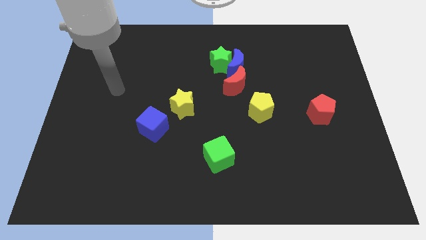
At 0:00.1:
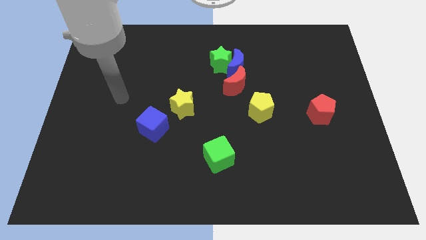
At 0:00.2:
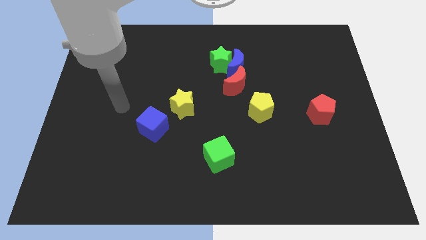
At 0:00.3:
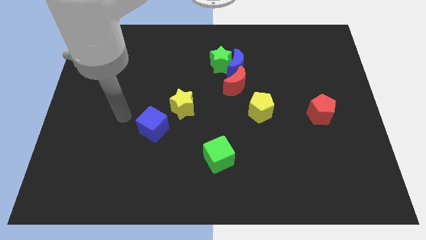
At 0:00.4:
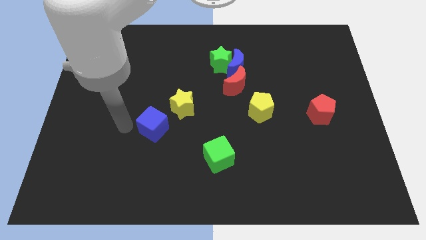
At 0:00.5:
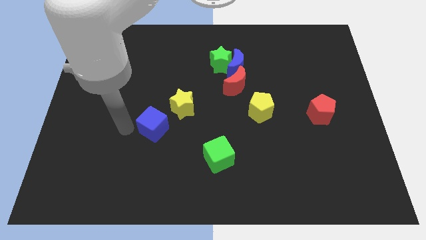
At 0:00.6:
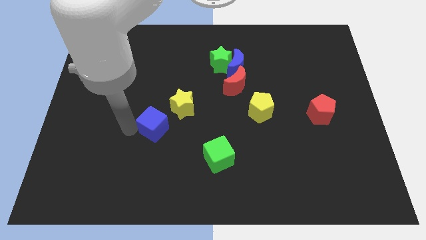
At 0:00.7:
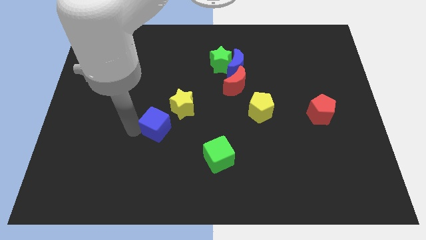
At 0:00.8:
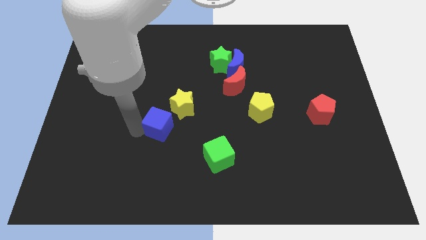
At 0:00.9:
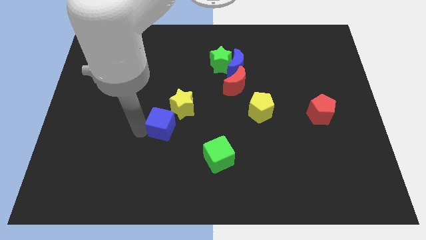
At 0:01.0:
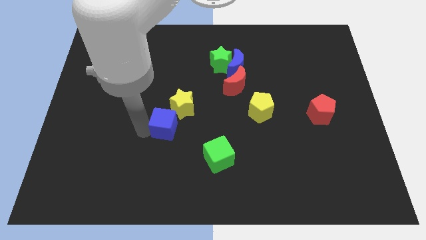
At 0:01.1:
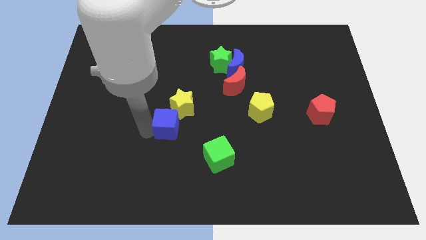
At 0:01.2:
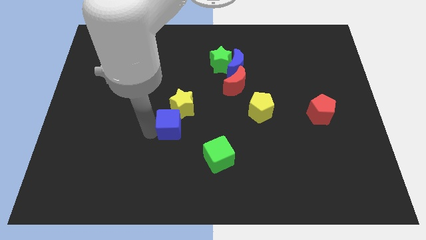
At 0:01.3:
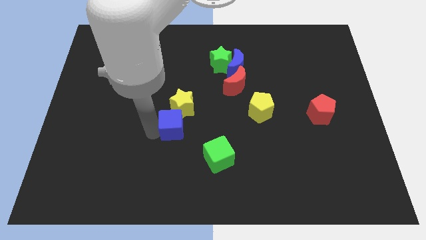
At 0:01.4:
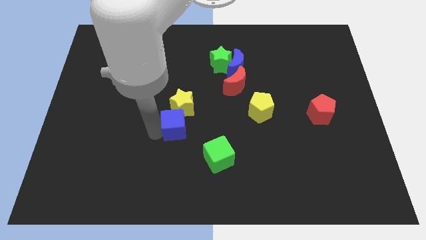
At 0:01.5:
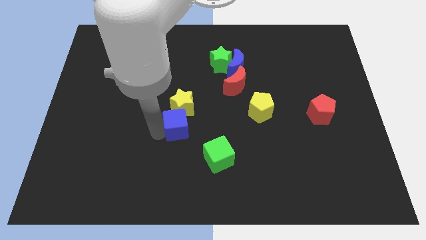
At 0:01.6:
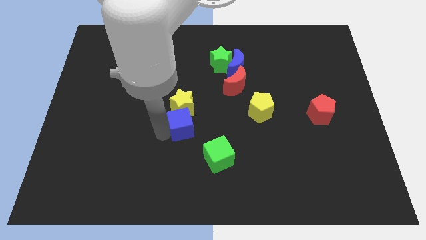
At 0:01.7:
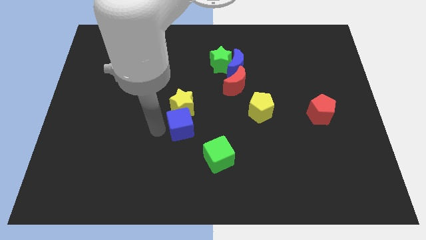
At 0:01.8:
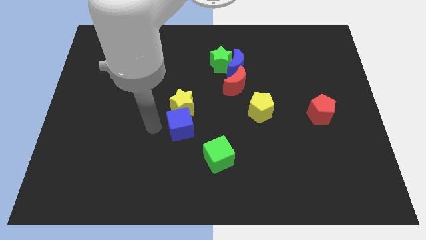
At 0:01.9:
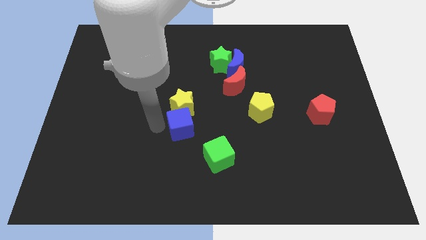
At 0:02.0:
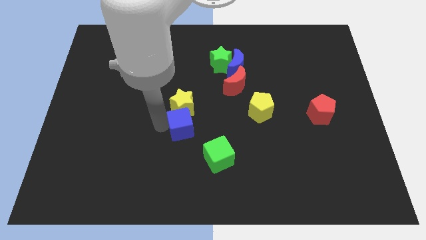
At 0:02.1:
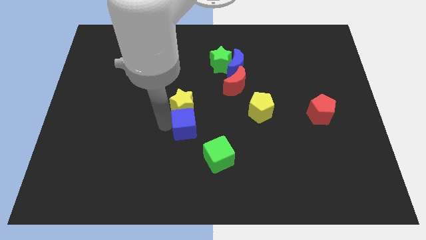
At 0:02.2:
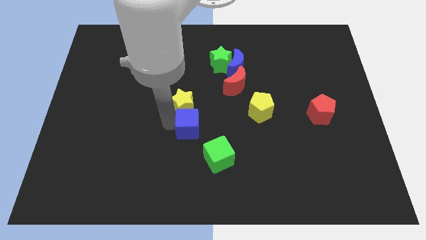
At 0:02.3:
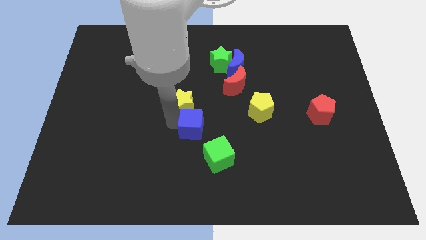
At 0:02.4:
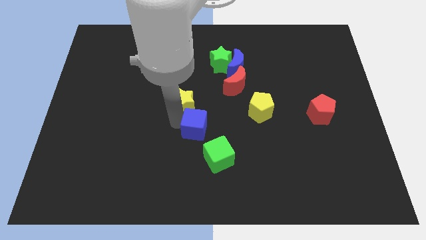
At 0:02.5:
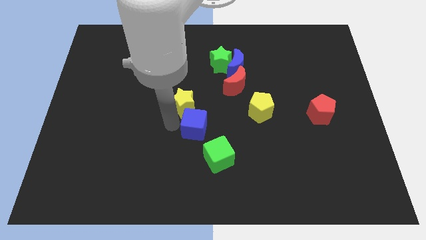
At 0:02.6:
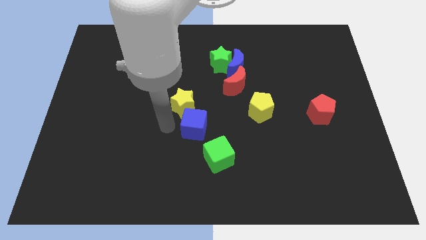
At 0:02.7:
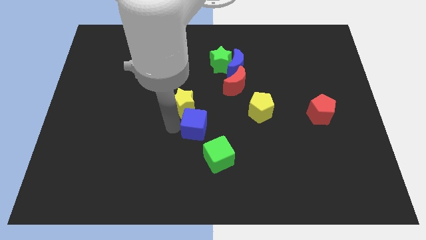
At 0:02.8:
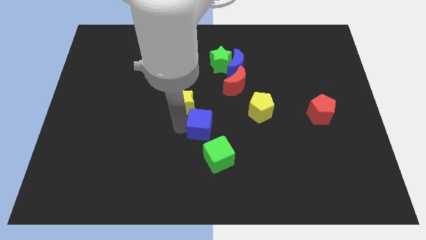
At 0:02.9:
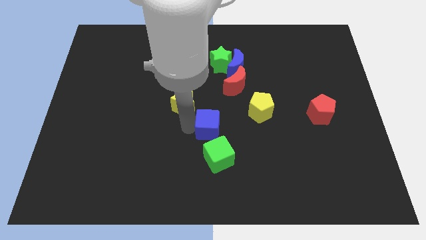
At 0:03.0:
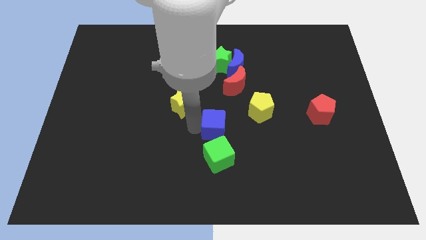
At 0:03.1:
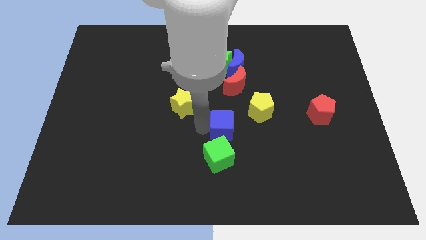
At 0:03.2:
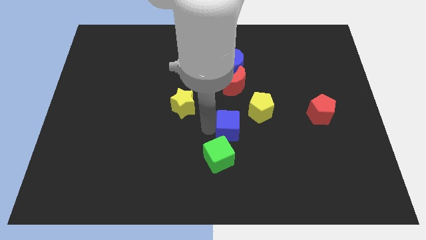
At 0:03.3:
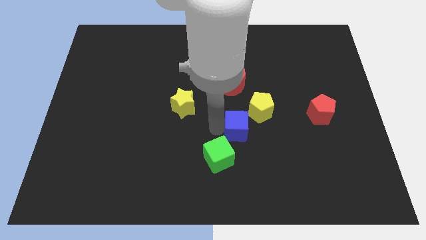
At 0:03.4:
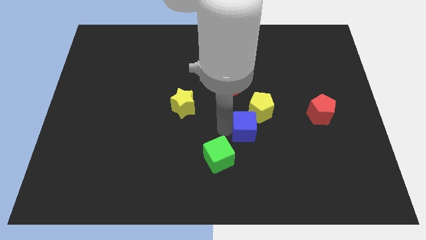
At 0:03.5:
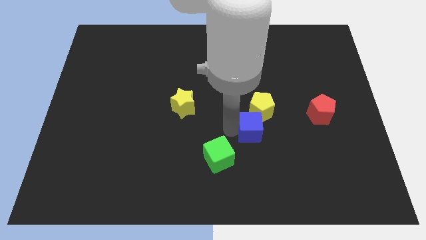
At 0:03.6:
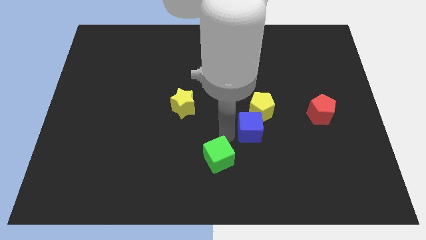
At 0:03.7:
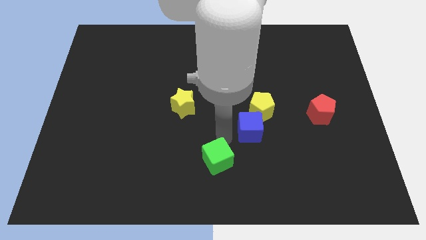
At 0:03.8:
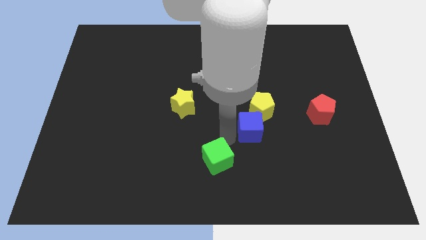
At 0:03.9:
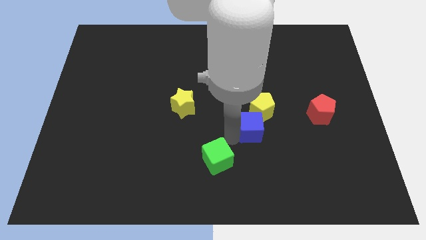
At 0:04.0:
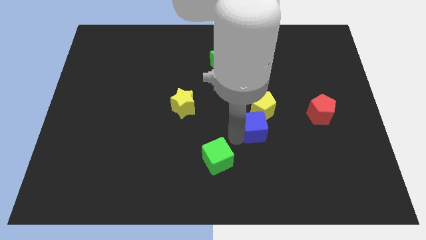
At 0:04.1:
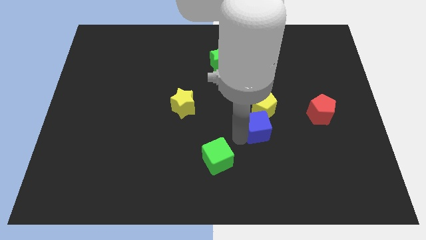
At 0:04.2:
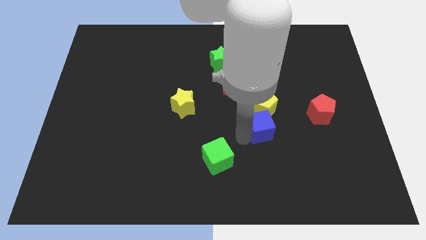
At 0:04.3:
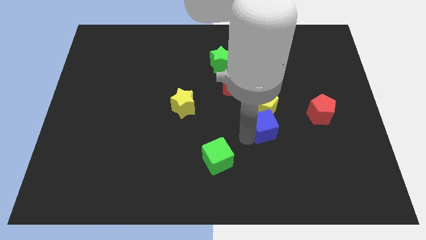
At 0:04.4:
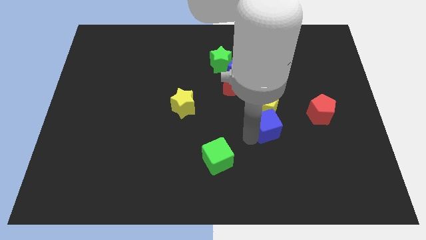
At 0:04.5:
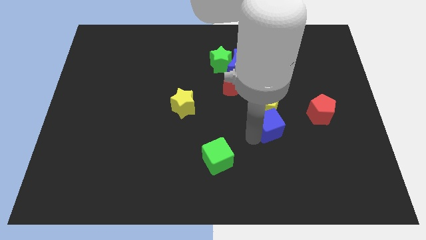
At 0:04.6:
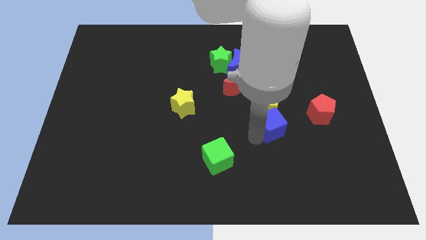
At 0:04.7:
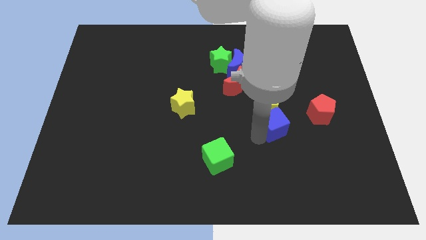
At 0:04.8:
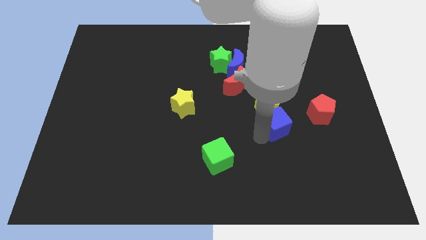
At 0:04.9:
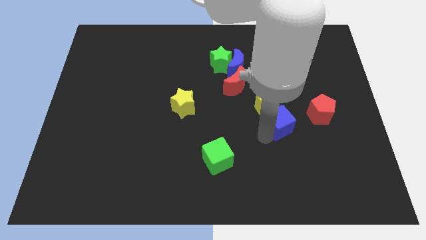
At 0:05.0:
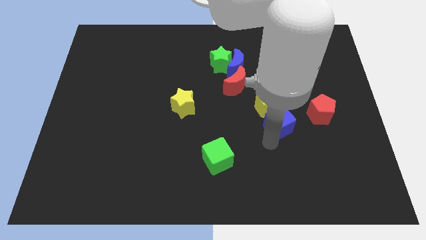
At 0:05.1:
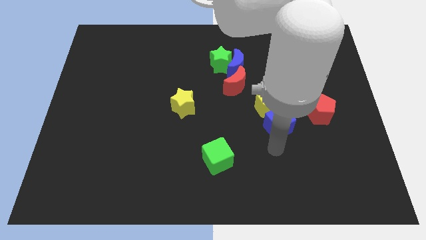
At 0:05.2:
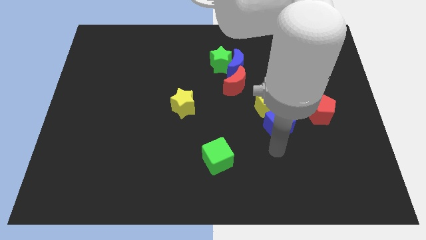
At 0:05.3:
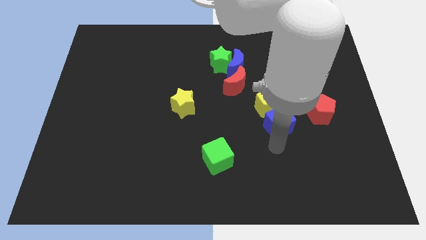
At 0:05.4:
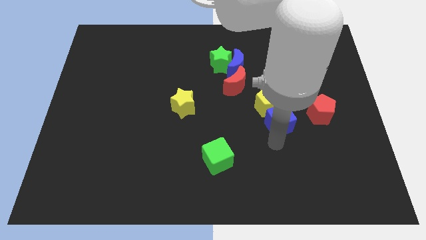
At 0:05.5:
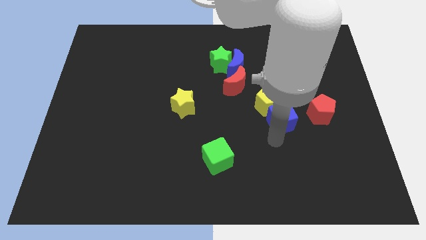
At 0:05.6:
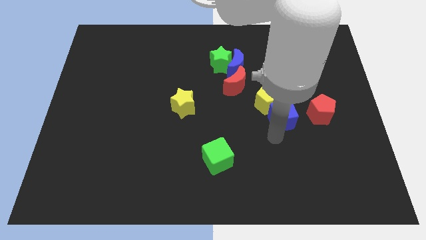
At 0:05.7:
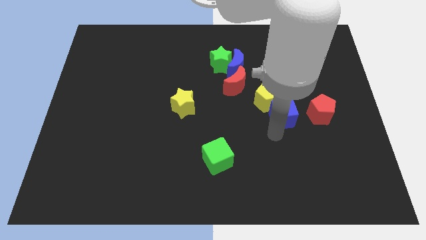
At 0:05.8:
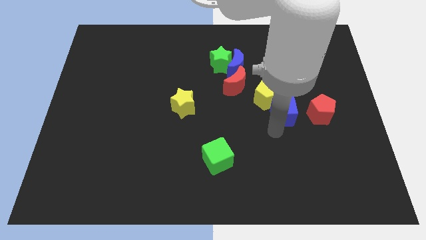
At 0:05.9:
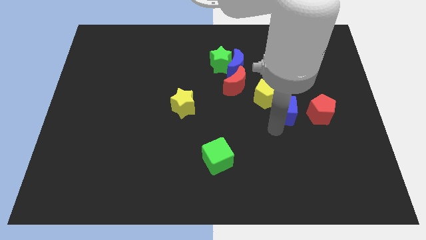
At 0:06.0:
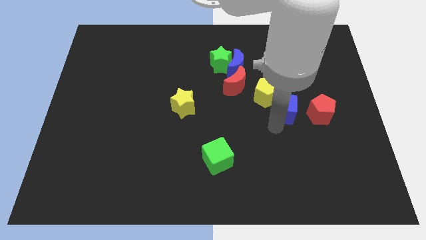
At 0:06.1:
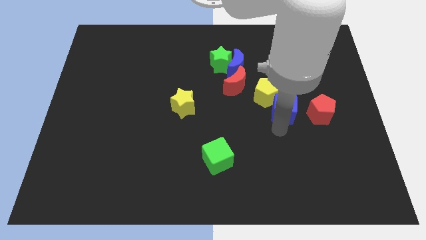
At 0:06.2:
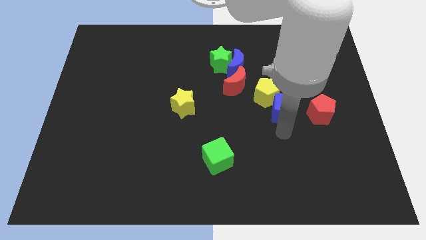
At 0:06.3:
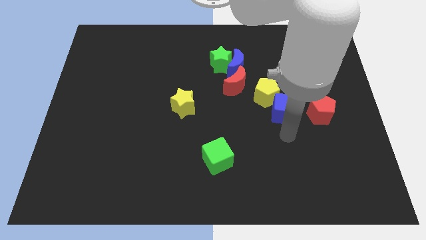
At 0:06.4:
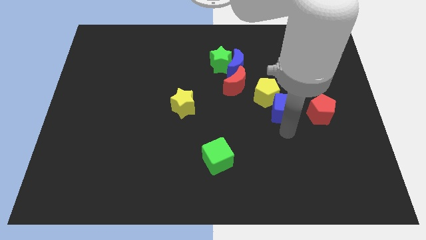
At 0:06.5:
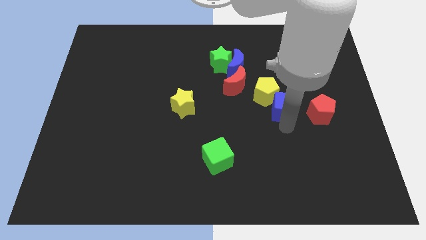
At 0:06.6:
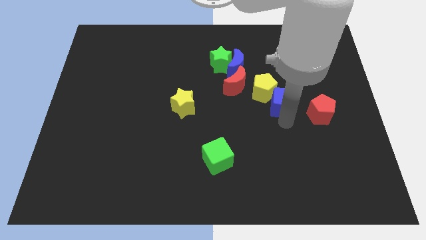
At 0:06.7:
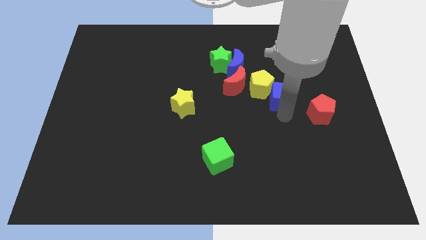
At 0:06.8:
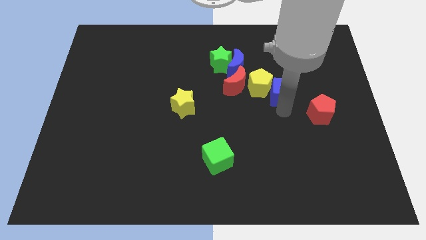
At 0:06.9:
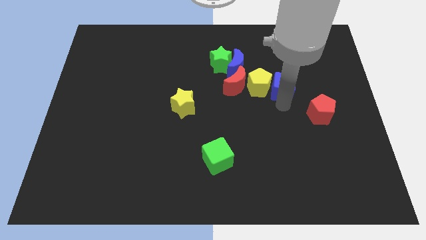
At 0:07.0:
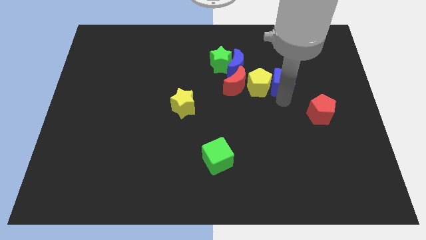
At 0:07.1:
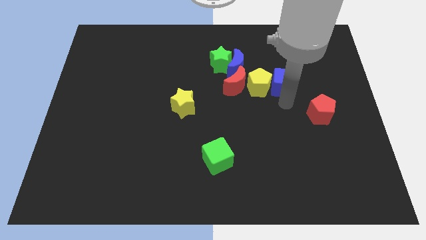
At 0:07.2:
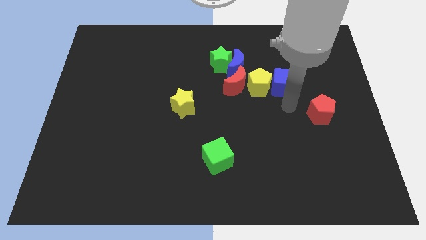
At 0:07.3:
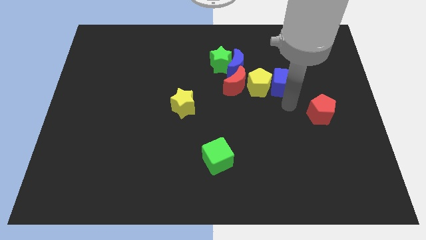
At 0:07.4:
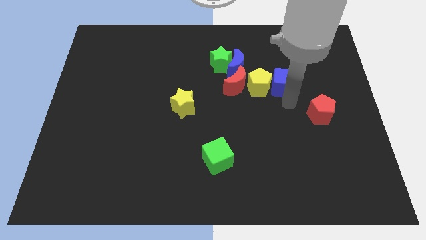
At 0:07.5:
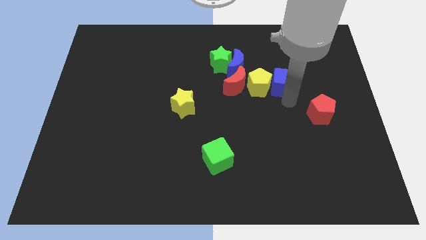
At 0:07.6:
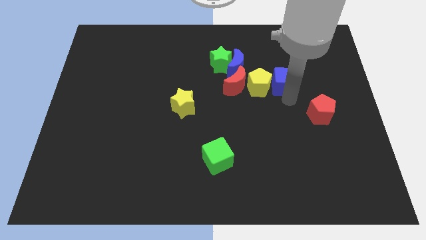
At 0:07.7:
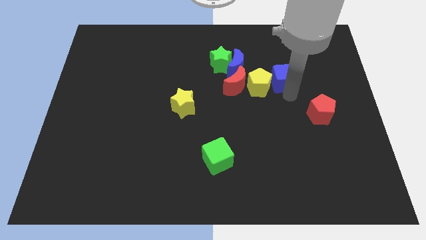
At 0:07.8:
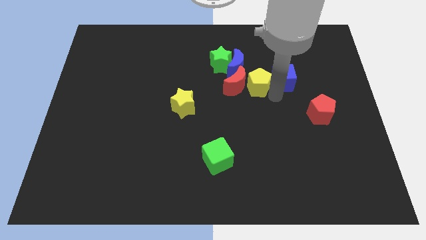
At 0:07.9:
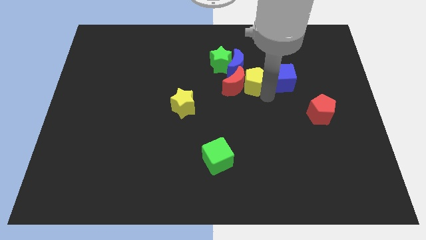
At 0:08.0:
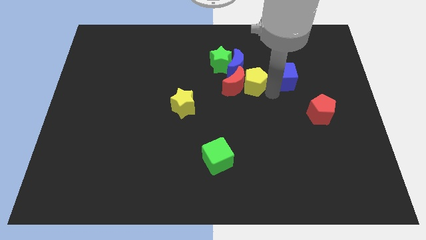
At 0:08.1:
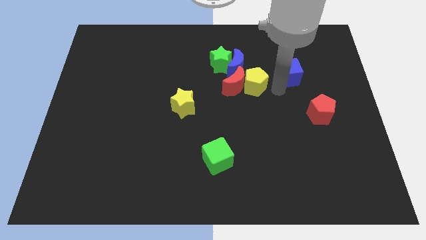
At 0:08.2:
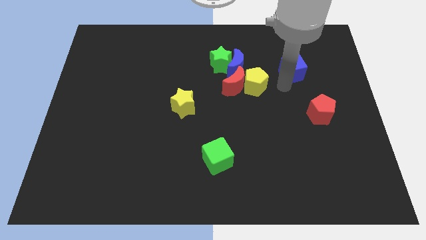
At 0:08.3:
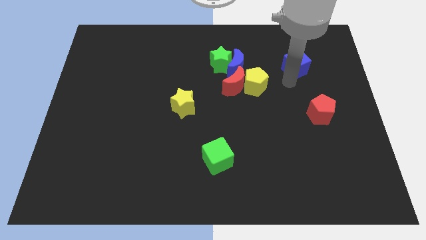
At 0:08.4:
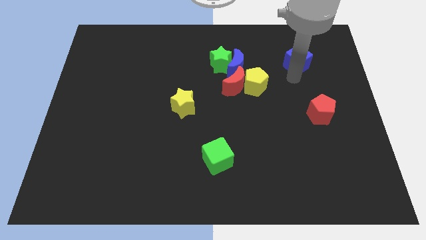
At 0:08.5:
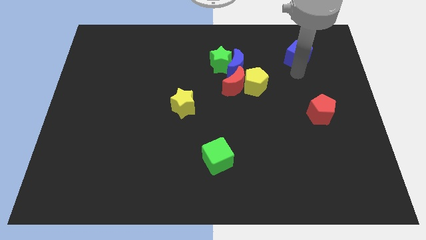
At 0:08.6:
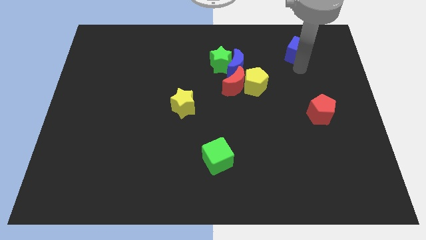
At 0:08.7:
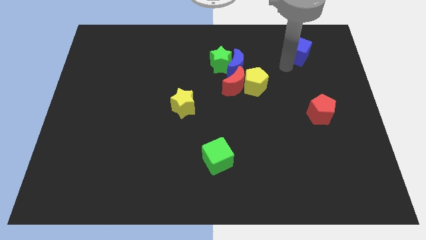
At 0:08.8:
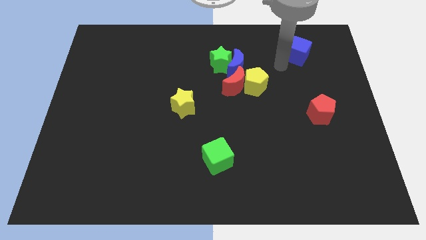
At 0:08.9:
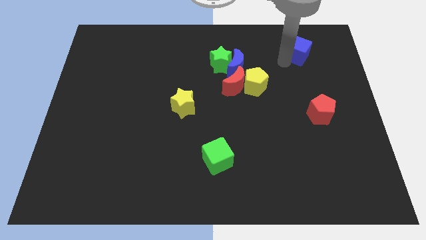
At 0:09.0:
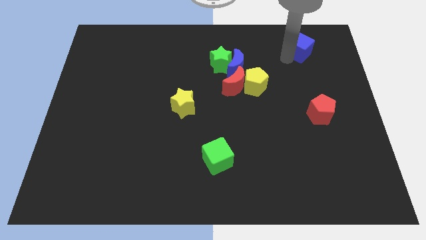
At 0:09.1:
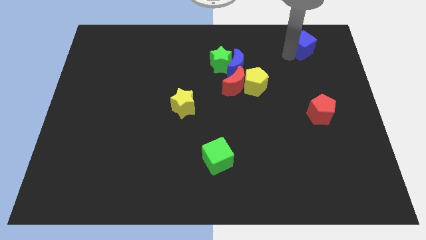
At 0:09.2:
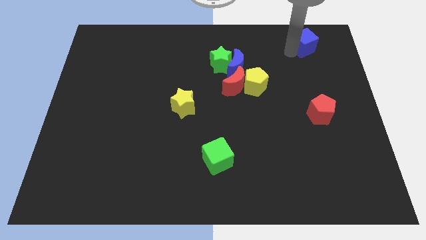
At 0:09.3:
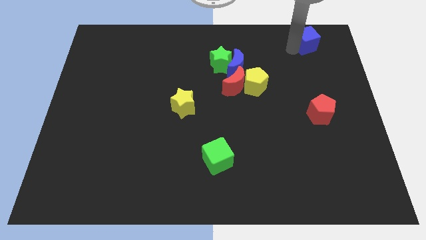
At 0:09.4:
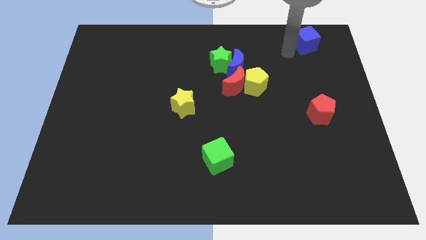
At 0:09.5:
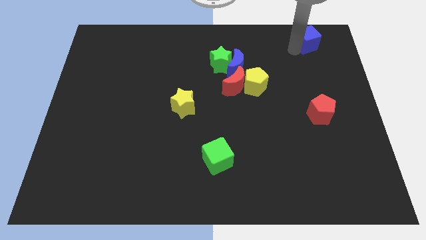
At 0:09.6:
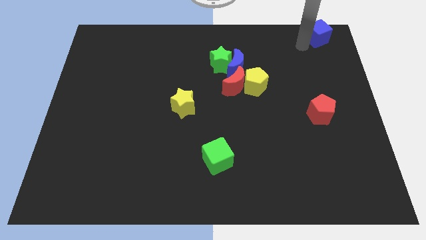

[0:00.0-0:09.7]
move the blue cube to the top right of the board
